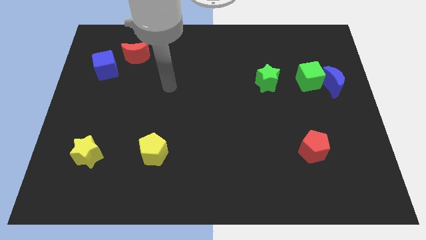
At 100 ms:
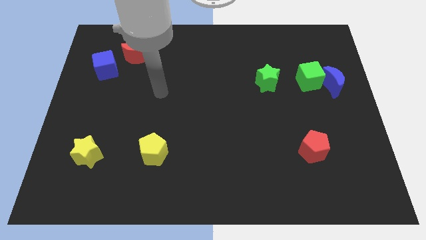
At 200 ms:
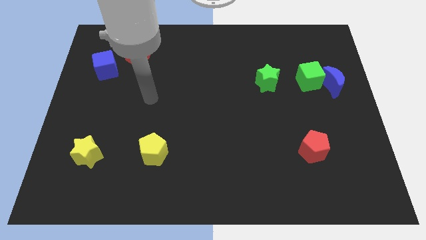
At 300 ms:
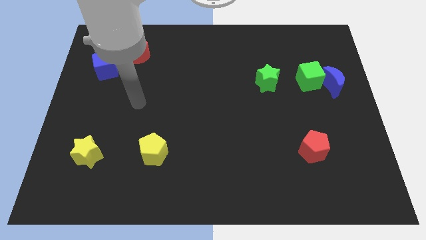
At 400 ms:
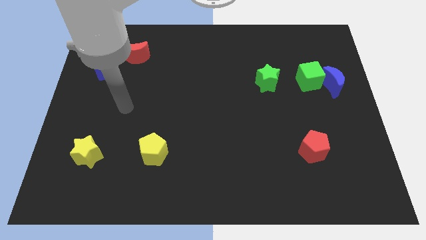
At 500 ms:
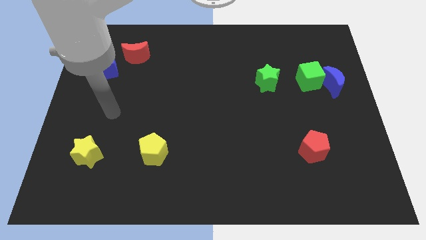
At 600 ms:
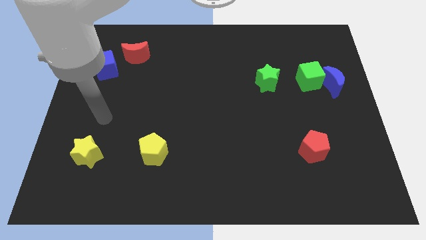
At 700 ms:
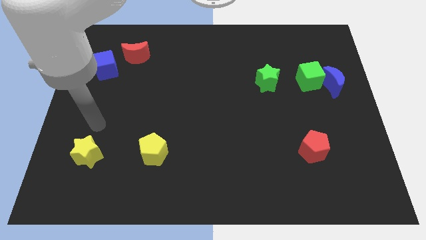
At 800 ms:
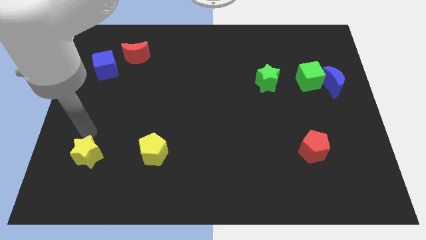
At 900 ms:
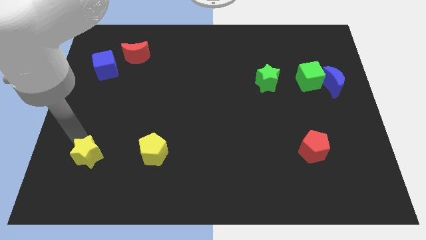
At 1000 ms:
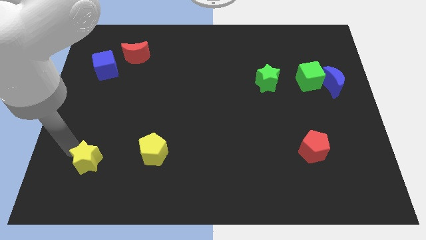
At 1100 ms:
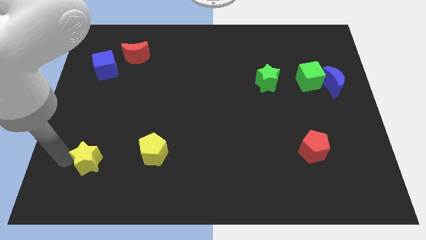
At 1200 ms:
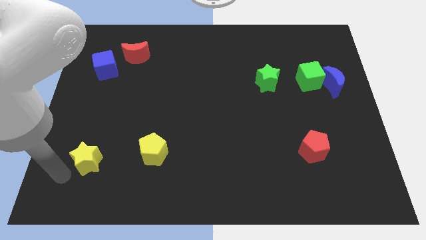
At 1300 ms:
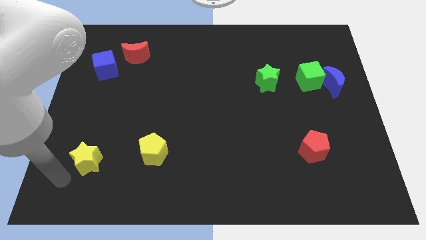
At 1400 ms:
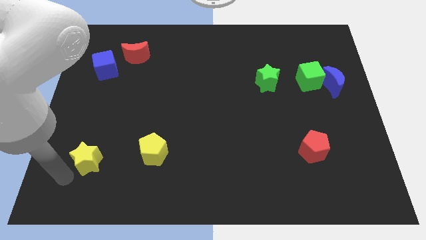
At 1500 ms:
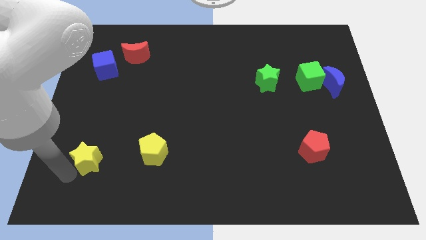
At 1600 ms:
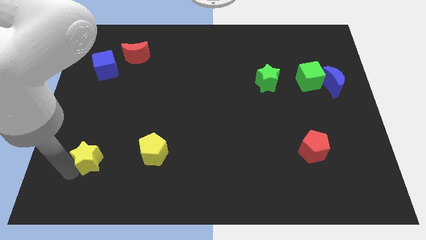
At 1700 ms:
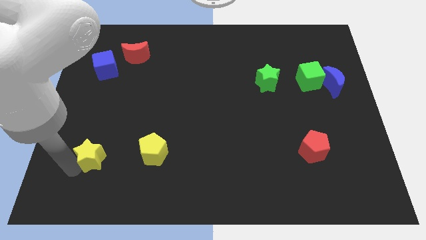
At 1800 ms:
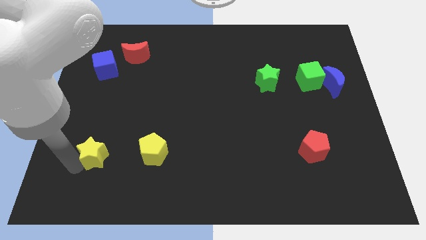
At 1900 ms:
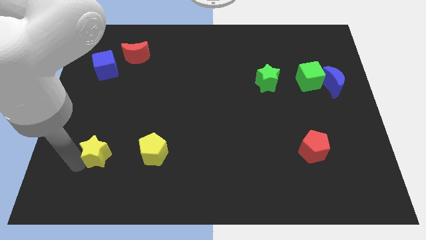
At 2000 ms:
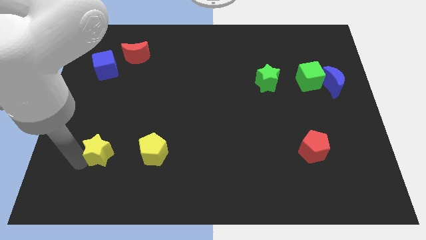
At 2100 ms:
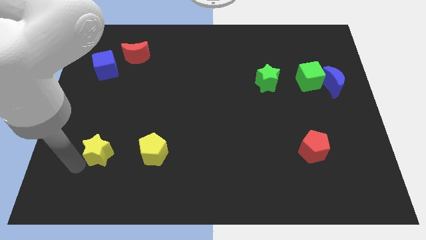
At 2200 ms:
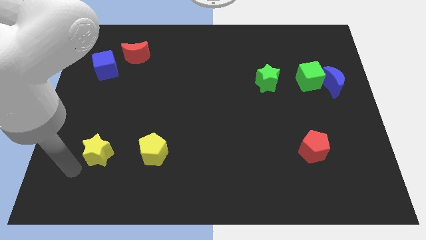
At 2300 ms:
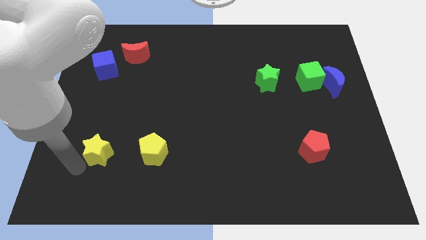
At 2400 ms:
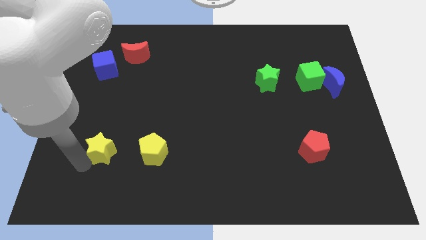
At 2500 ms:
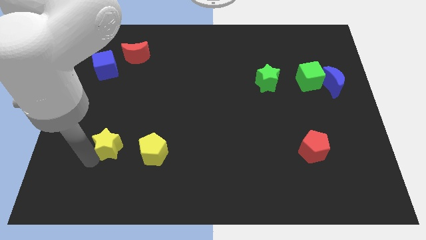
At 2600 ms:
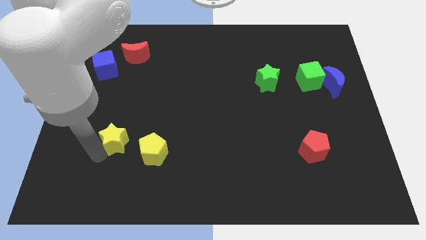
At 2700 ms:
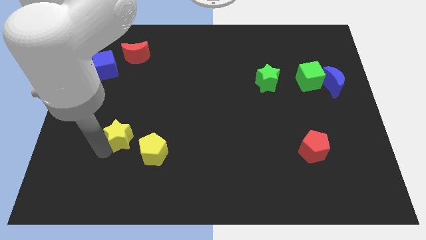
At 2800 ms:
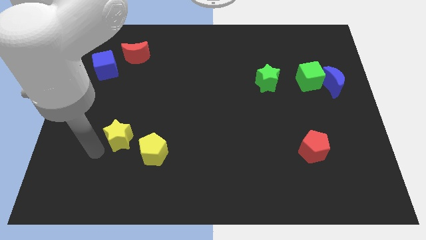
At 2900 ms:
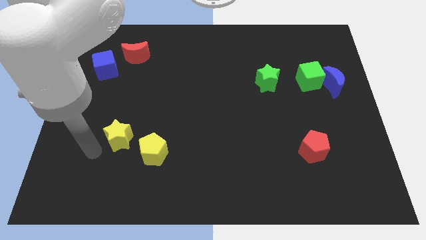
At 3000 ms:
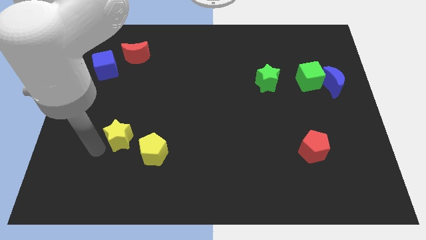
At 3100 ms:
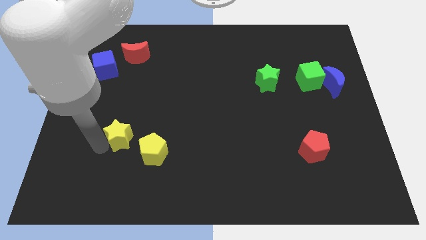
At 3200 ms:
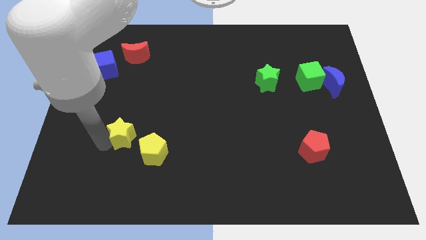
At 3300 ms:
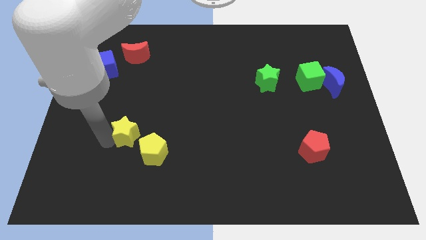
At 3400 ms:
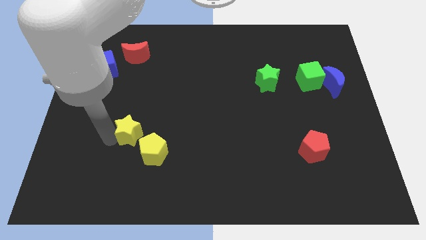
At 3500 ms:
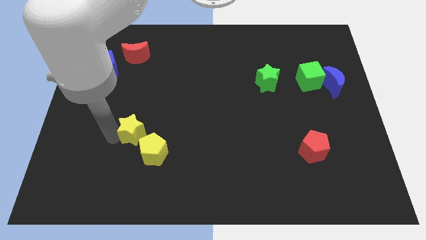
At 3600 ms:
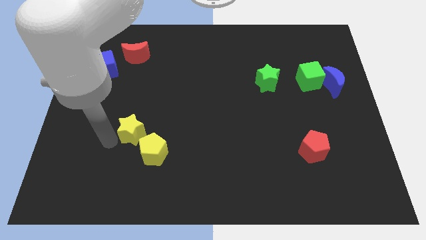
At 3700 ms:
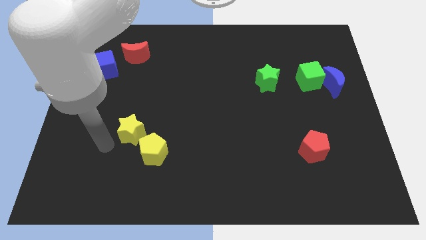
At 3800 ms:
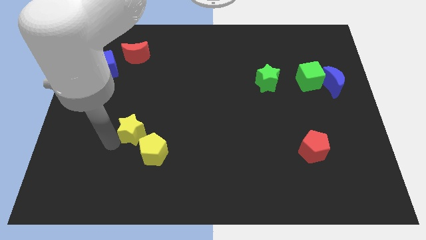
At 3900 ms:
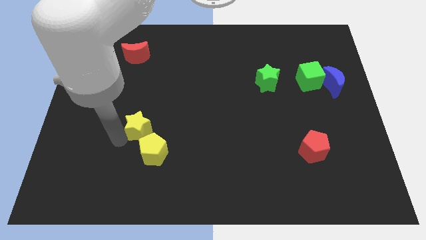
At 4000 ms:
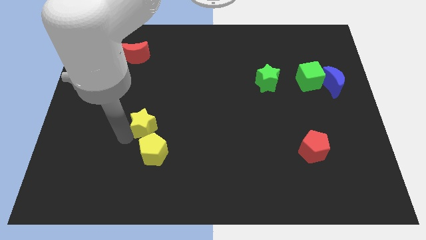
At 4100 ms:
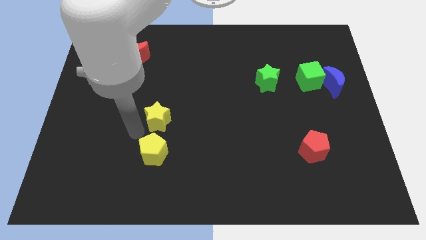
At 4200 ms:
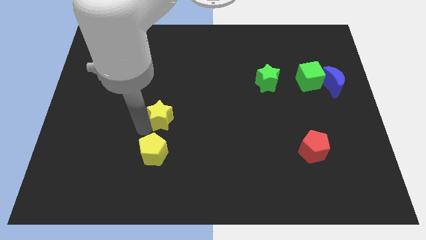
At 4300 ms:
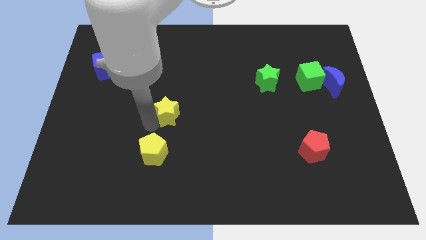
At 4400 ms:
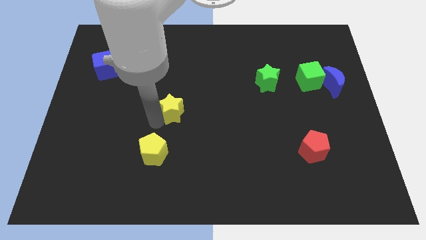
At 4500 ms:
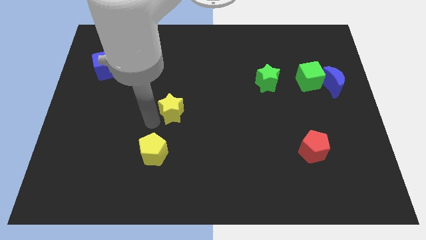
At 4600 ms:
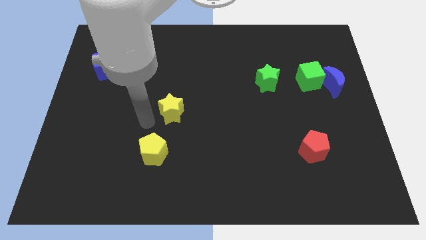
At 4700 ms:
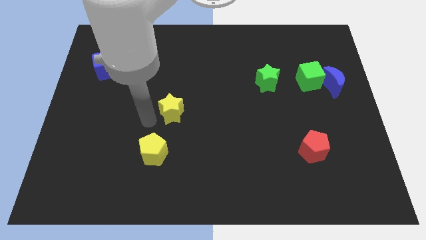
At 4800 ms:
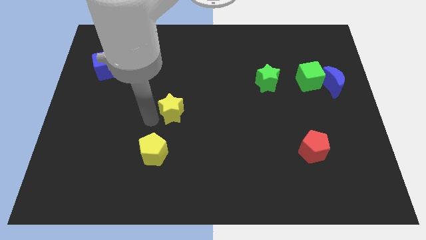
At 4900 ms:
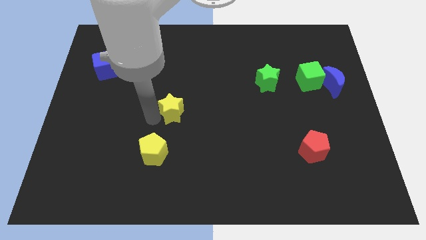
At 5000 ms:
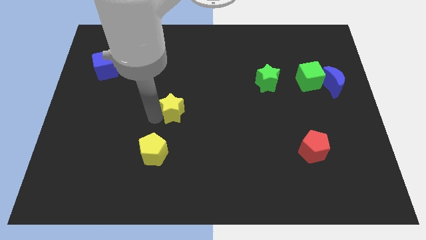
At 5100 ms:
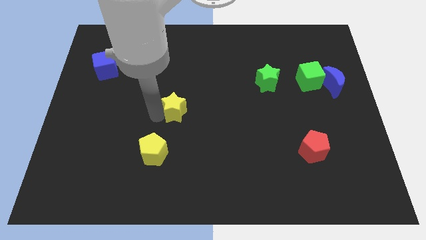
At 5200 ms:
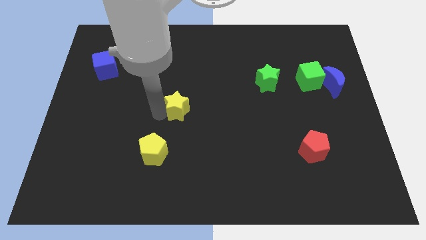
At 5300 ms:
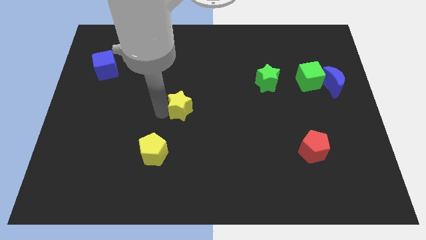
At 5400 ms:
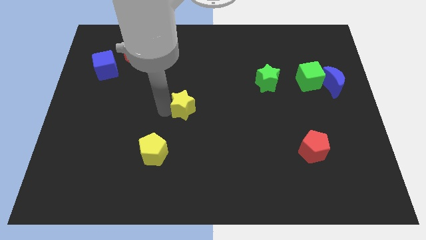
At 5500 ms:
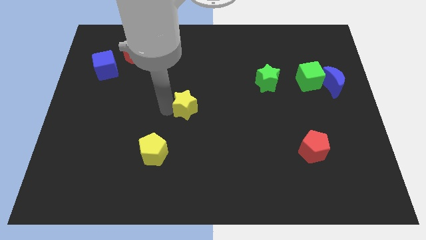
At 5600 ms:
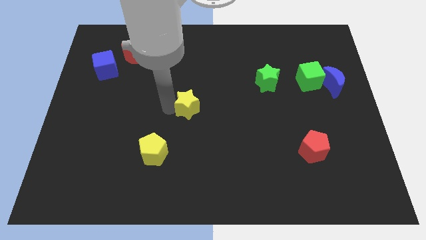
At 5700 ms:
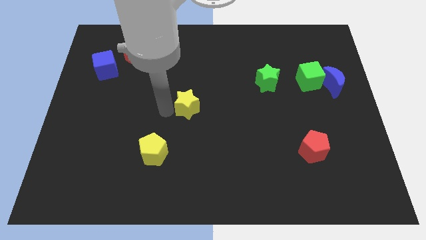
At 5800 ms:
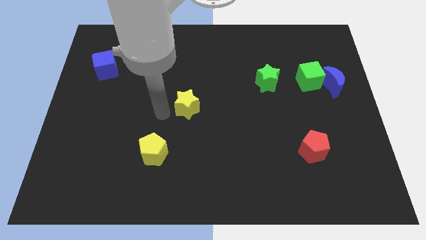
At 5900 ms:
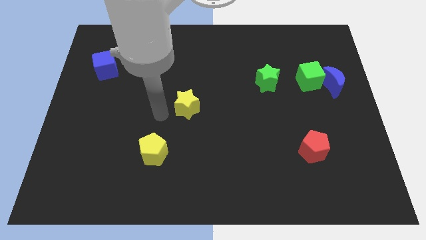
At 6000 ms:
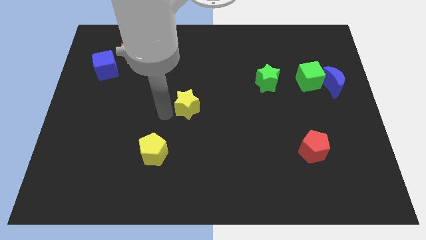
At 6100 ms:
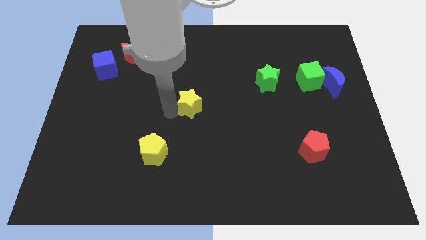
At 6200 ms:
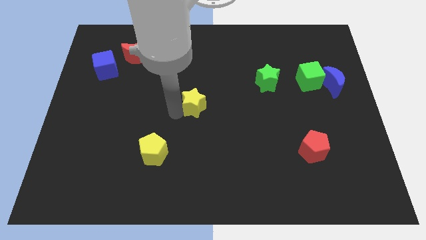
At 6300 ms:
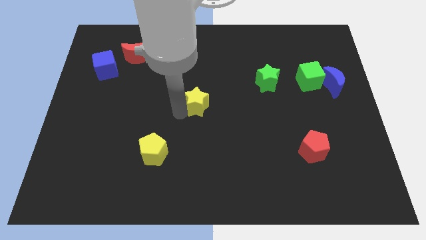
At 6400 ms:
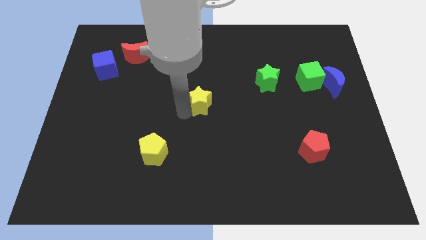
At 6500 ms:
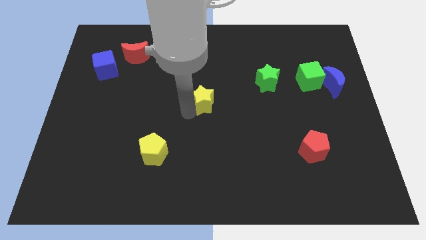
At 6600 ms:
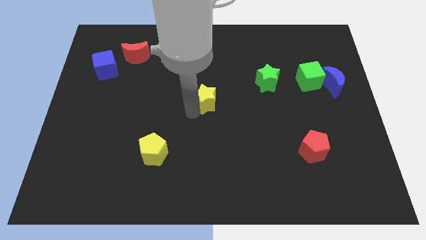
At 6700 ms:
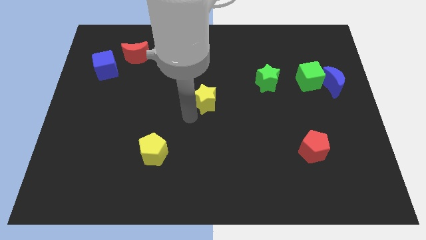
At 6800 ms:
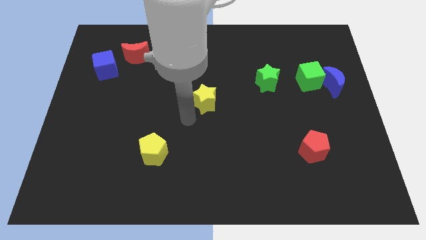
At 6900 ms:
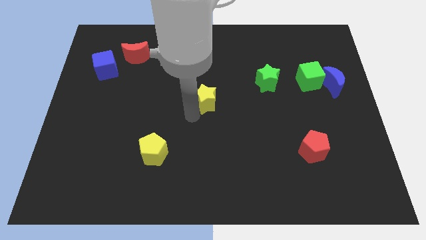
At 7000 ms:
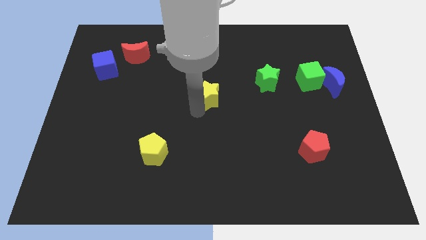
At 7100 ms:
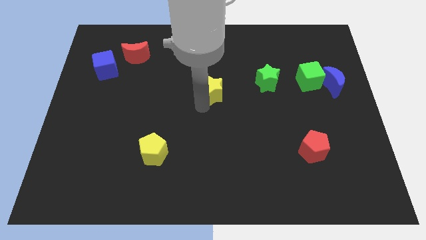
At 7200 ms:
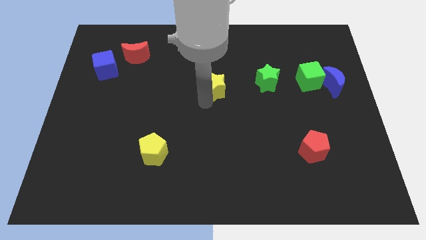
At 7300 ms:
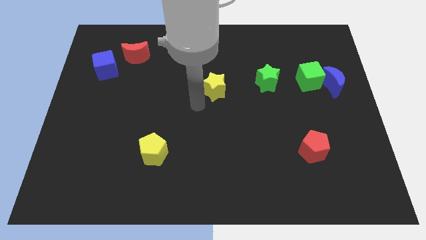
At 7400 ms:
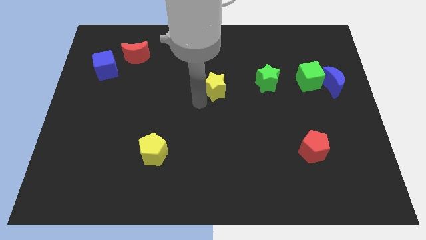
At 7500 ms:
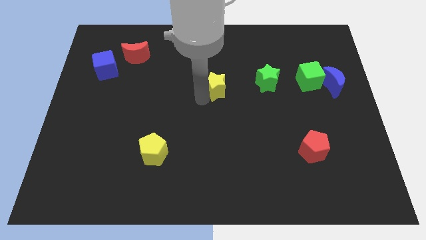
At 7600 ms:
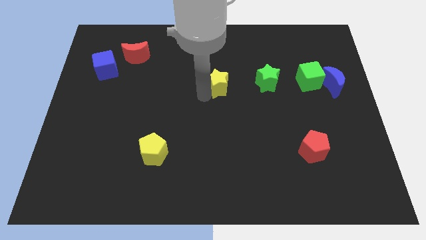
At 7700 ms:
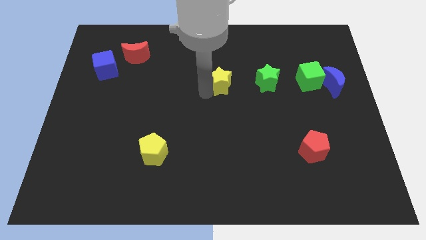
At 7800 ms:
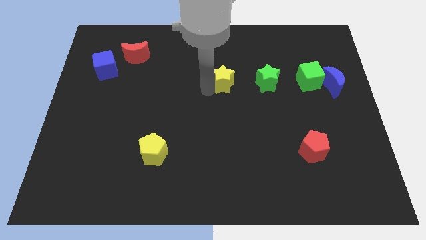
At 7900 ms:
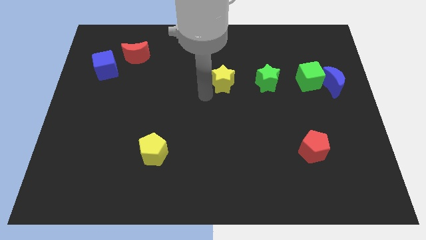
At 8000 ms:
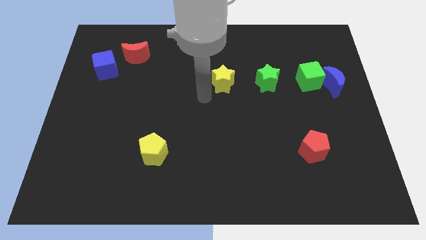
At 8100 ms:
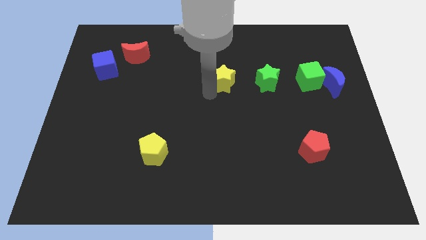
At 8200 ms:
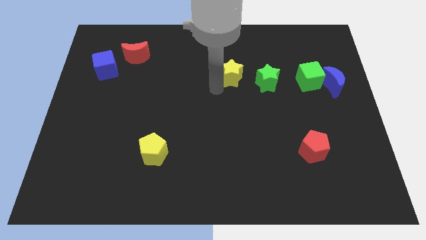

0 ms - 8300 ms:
slide the yellow star to the top left side of the green star
